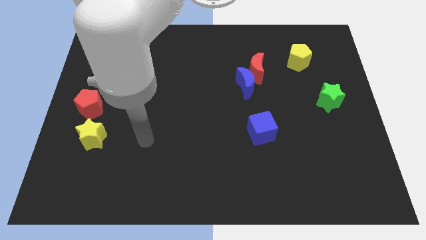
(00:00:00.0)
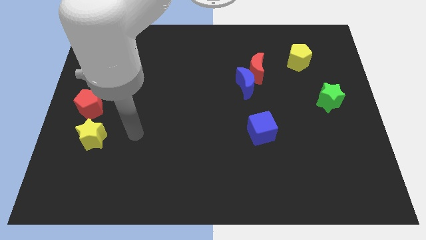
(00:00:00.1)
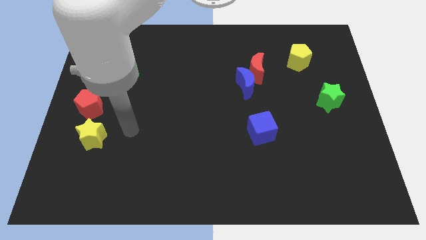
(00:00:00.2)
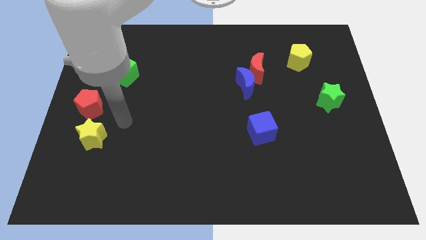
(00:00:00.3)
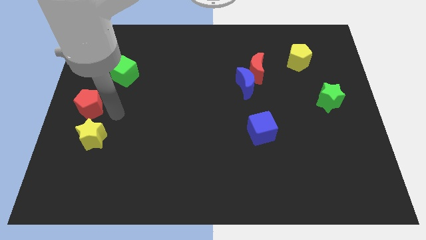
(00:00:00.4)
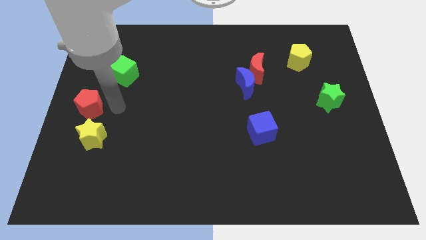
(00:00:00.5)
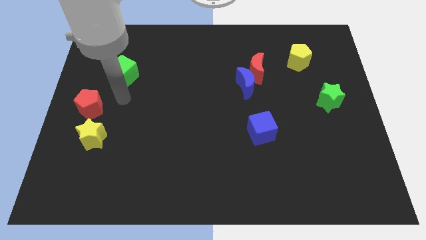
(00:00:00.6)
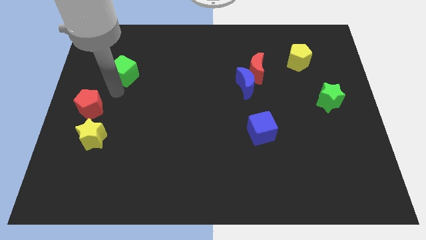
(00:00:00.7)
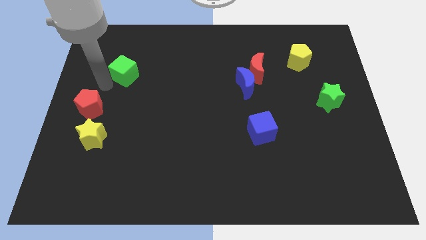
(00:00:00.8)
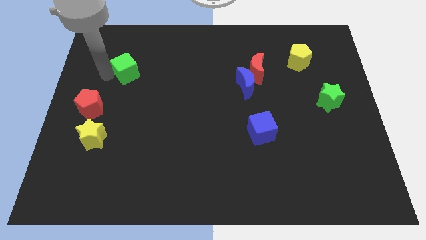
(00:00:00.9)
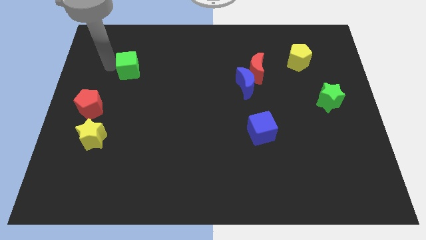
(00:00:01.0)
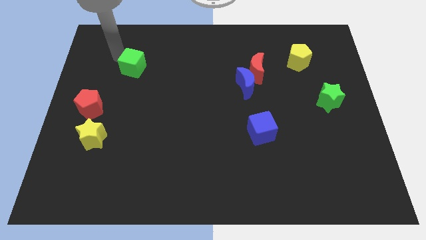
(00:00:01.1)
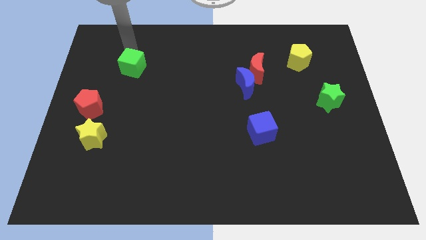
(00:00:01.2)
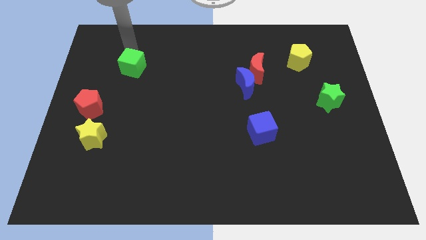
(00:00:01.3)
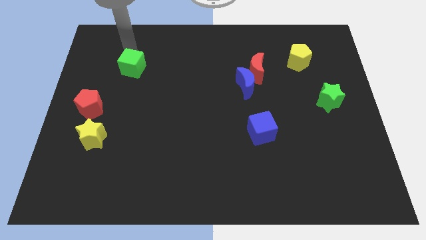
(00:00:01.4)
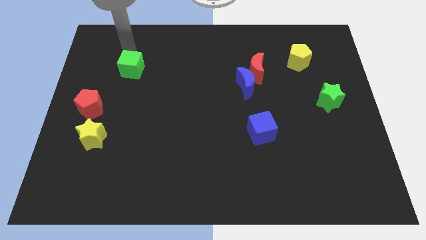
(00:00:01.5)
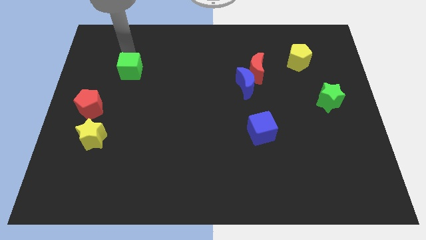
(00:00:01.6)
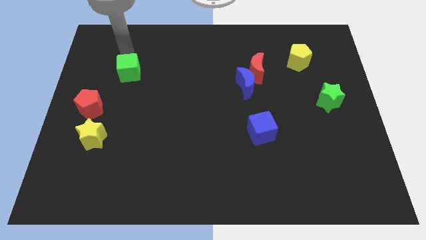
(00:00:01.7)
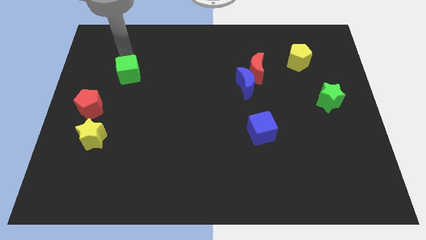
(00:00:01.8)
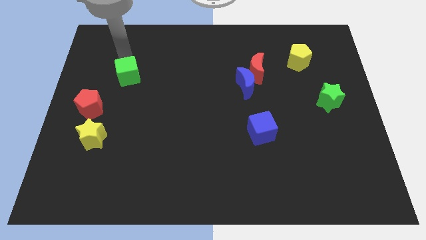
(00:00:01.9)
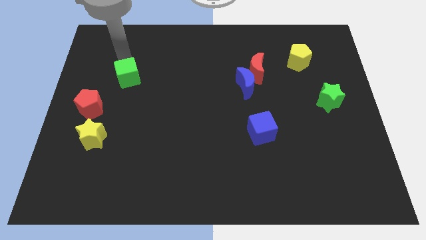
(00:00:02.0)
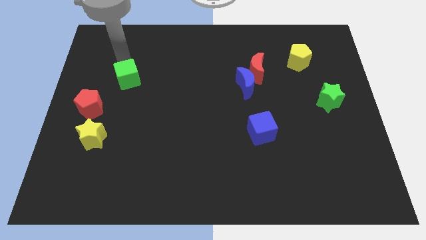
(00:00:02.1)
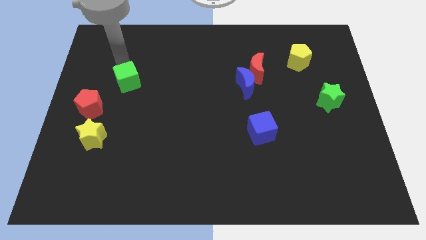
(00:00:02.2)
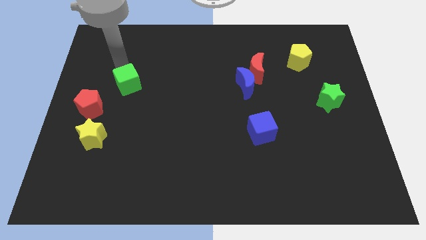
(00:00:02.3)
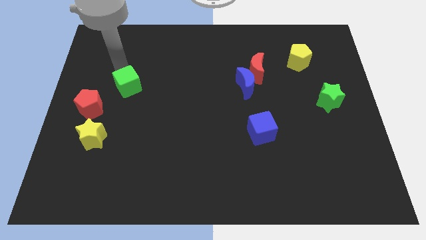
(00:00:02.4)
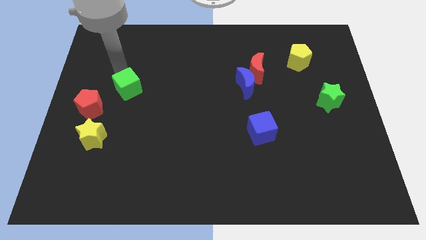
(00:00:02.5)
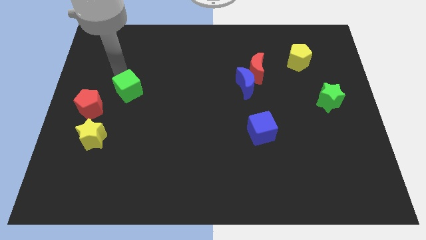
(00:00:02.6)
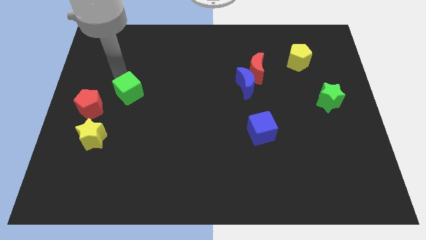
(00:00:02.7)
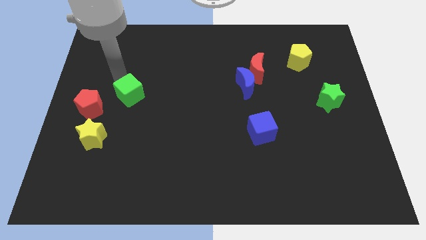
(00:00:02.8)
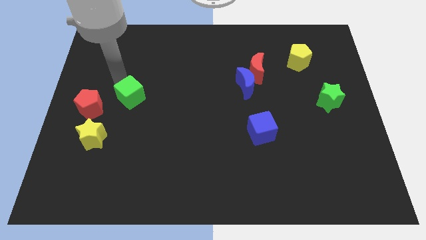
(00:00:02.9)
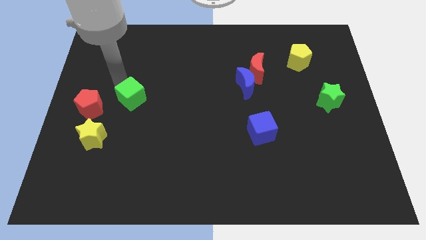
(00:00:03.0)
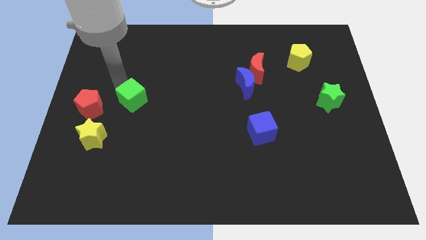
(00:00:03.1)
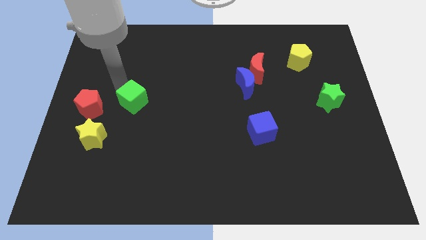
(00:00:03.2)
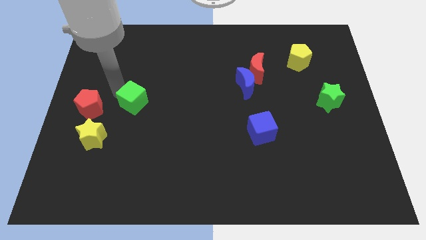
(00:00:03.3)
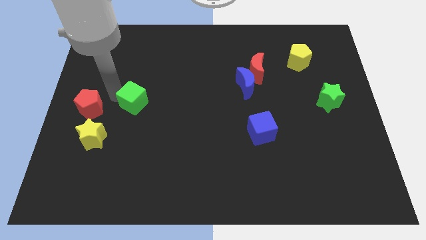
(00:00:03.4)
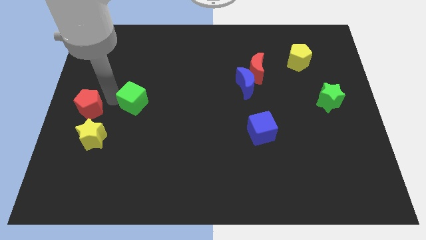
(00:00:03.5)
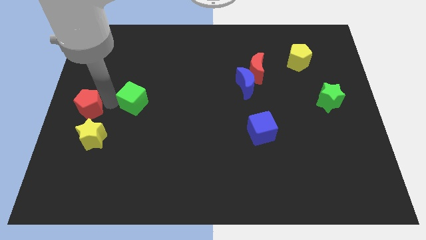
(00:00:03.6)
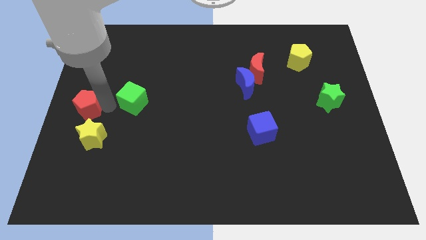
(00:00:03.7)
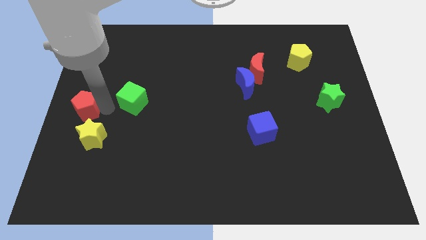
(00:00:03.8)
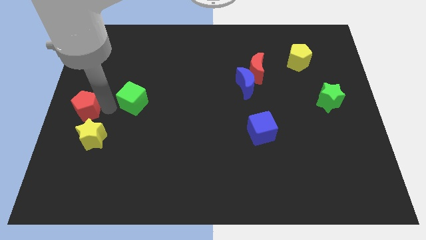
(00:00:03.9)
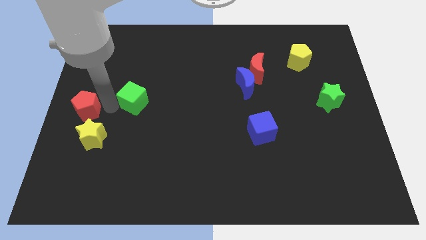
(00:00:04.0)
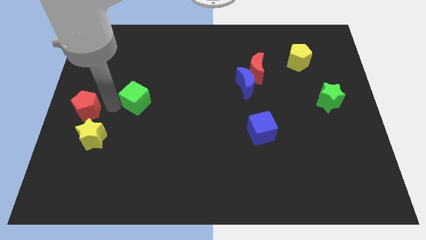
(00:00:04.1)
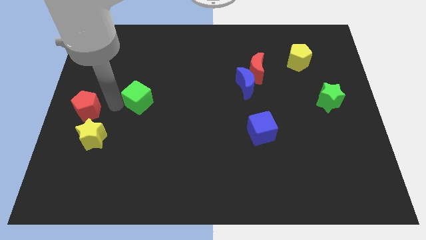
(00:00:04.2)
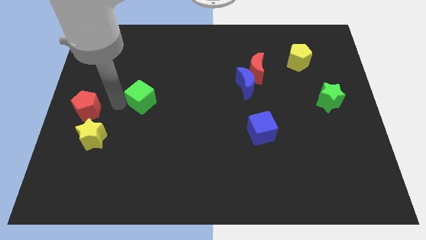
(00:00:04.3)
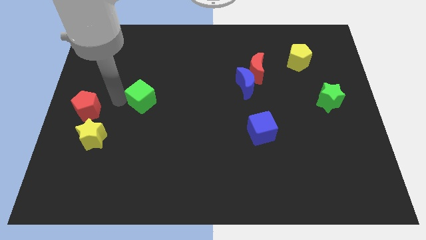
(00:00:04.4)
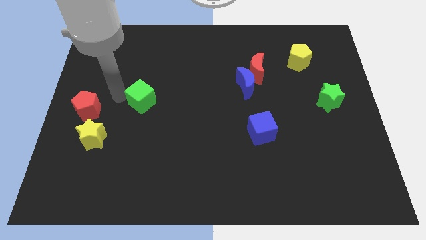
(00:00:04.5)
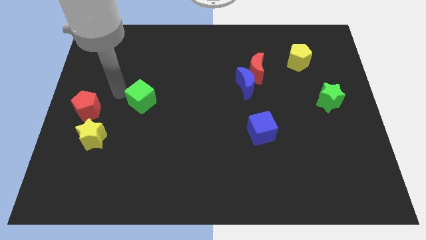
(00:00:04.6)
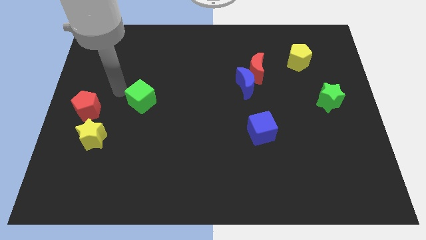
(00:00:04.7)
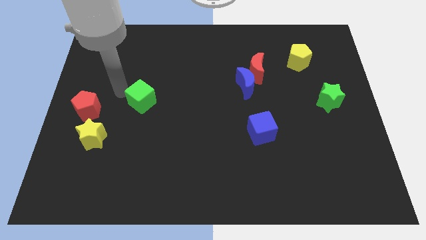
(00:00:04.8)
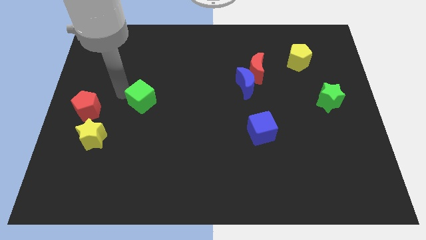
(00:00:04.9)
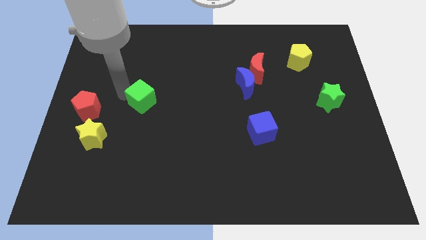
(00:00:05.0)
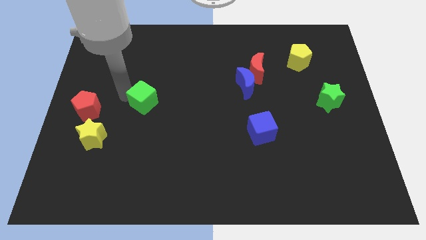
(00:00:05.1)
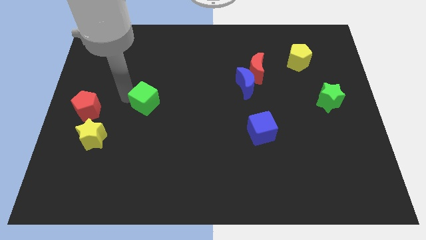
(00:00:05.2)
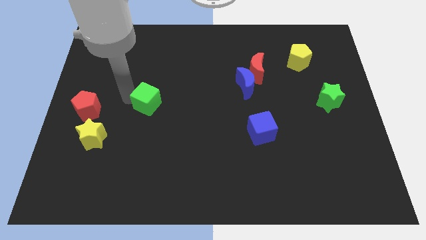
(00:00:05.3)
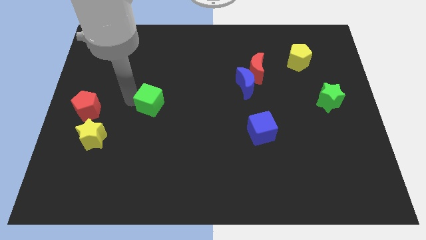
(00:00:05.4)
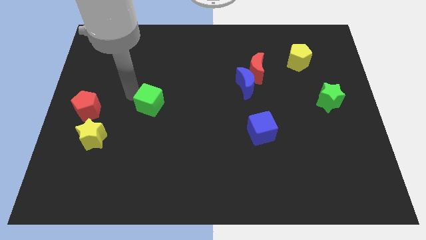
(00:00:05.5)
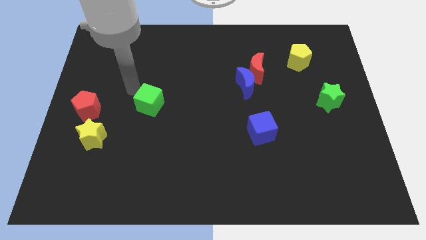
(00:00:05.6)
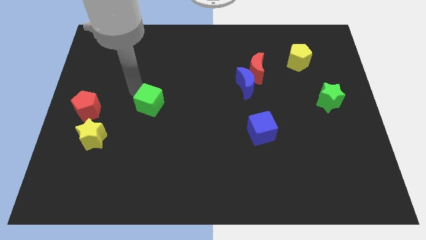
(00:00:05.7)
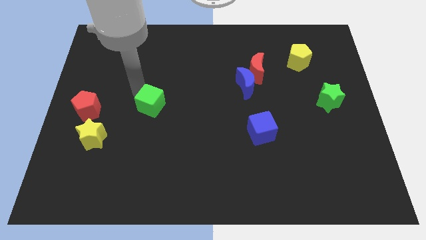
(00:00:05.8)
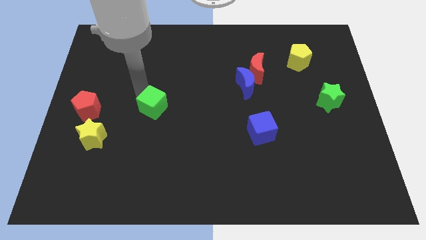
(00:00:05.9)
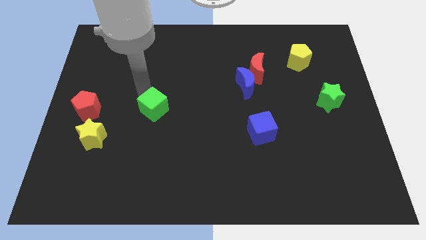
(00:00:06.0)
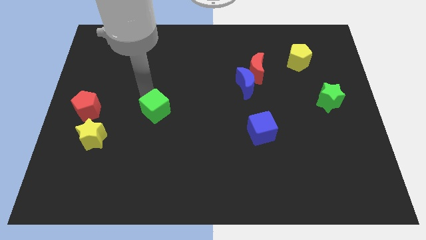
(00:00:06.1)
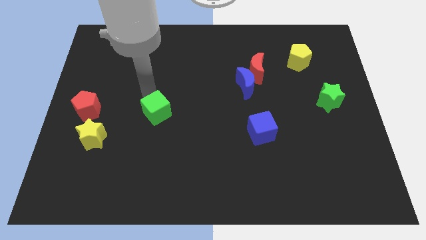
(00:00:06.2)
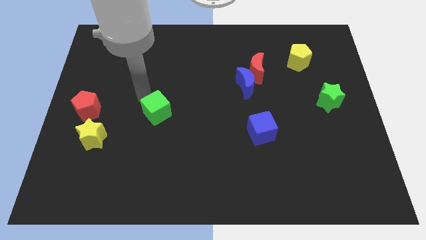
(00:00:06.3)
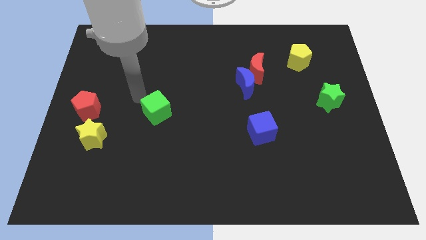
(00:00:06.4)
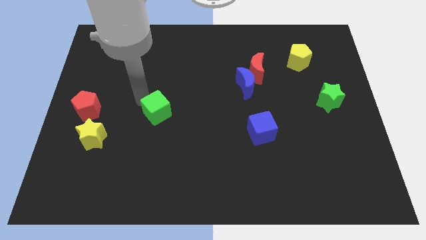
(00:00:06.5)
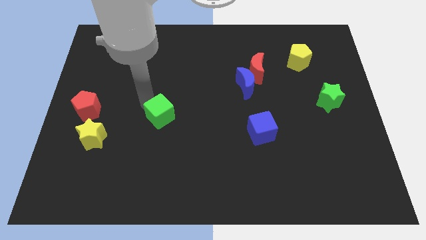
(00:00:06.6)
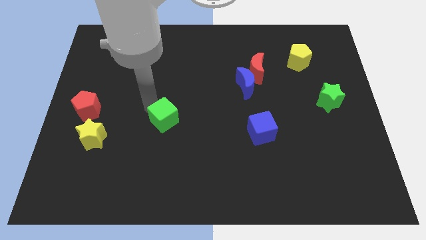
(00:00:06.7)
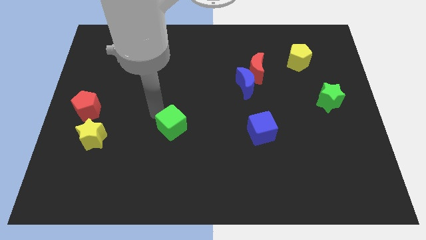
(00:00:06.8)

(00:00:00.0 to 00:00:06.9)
slide the green cube down and right

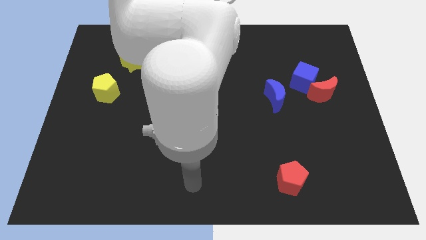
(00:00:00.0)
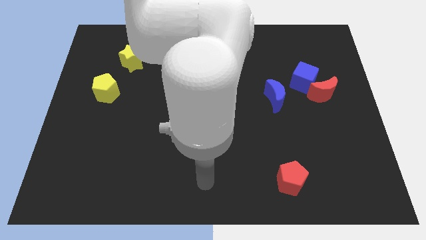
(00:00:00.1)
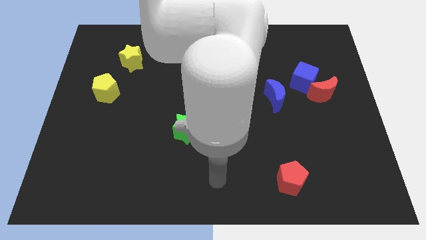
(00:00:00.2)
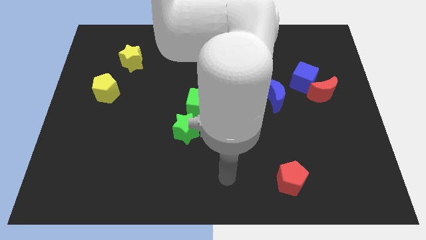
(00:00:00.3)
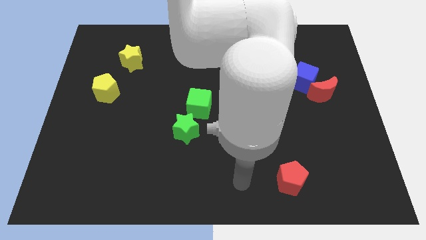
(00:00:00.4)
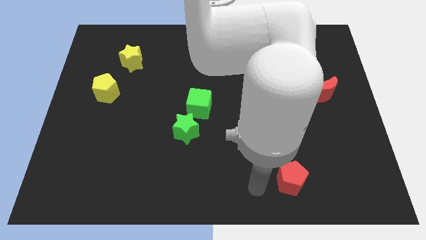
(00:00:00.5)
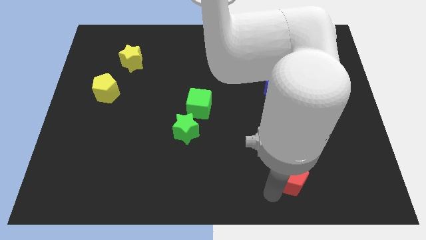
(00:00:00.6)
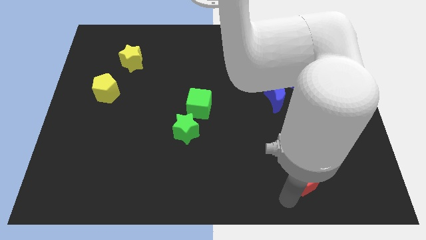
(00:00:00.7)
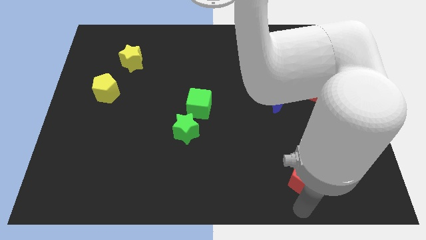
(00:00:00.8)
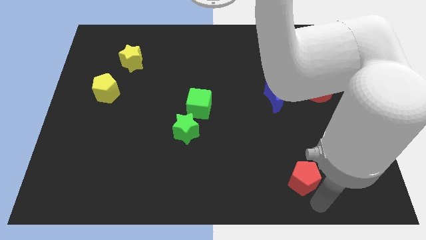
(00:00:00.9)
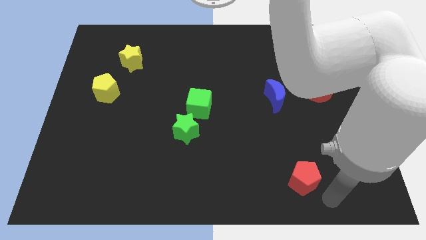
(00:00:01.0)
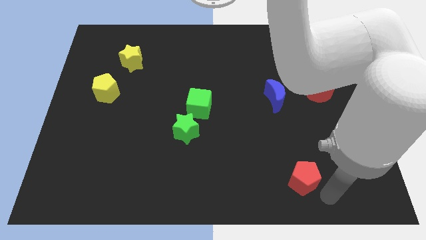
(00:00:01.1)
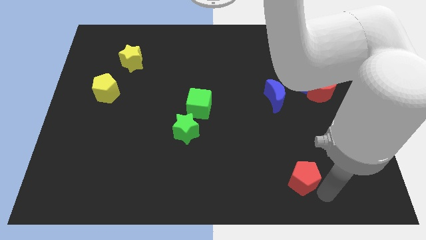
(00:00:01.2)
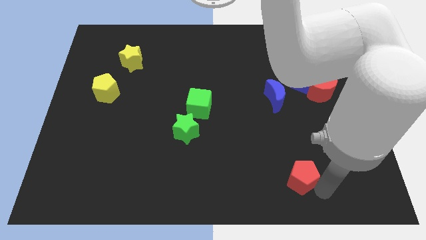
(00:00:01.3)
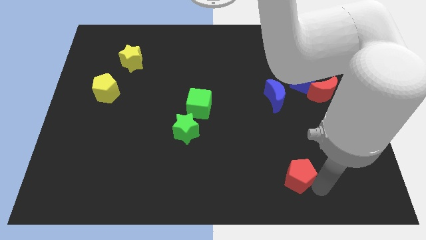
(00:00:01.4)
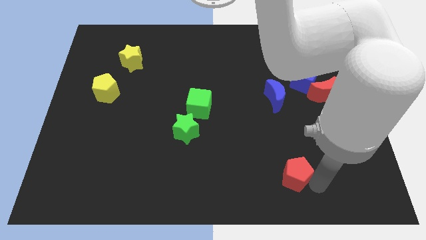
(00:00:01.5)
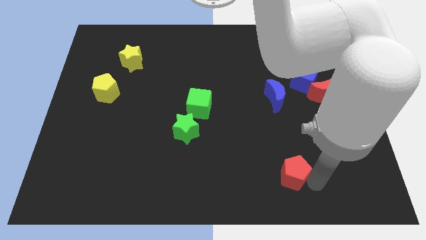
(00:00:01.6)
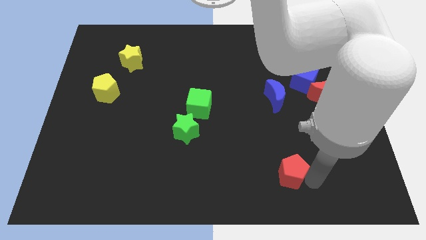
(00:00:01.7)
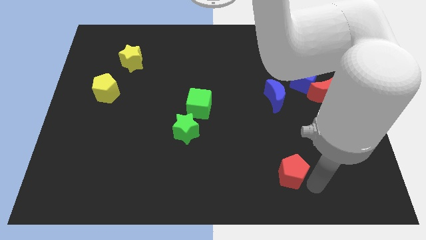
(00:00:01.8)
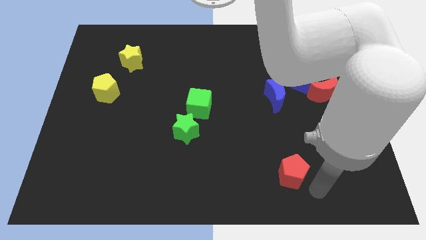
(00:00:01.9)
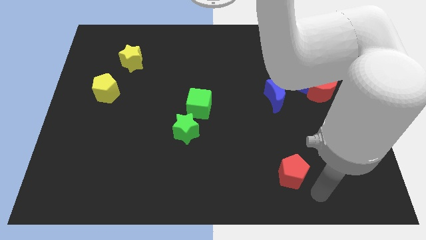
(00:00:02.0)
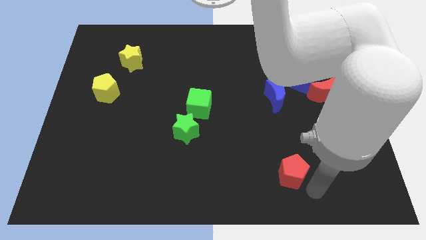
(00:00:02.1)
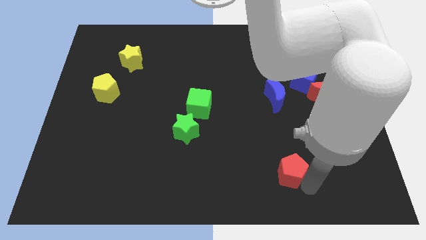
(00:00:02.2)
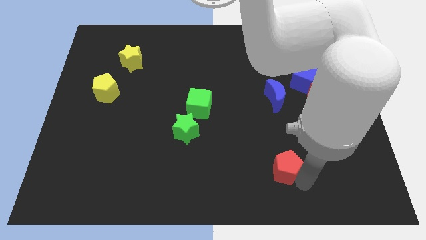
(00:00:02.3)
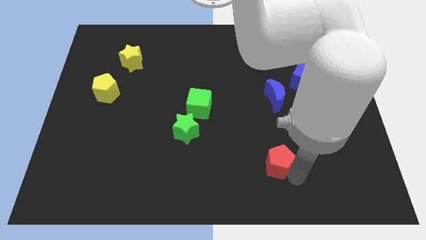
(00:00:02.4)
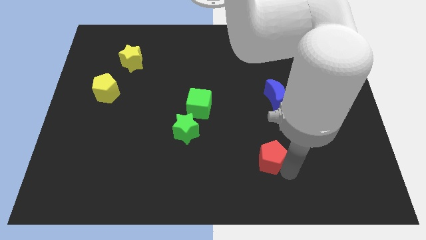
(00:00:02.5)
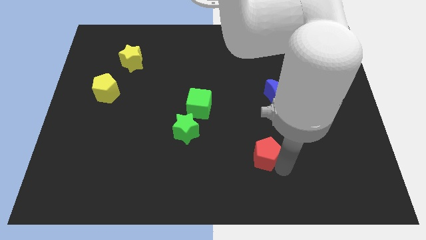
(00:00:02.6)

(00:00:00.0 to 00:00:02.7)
push the red pentagon a bit up and then to the left
